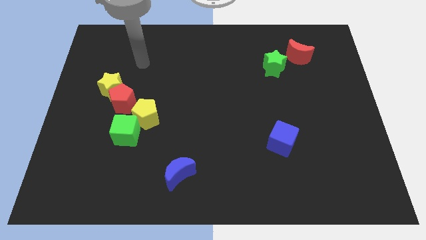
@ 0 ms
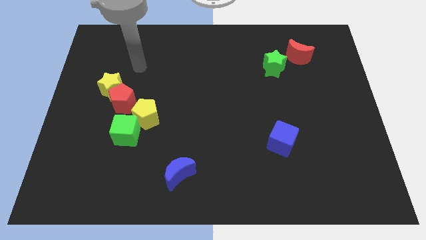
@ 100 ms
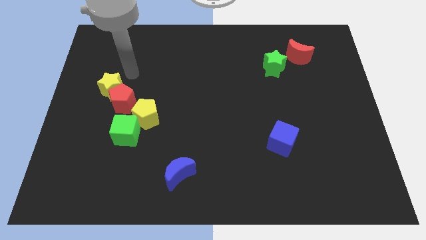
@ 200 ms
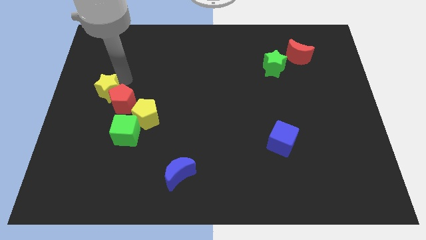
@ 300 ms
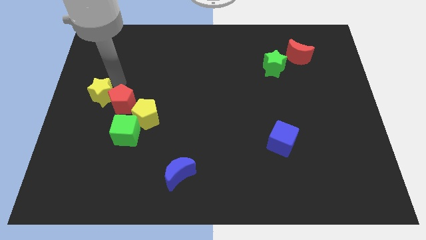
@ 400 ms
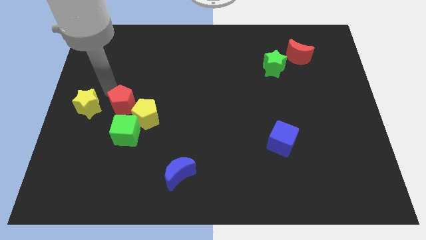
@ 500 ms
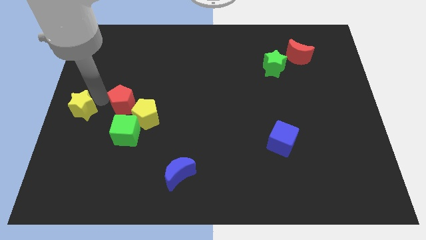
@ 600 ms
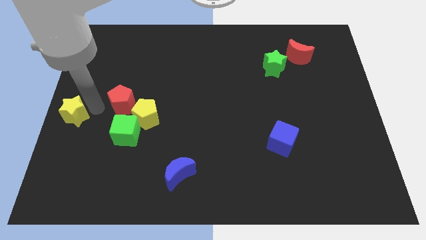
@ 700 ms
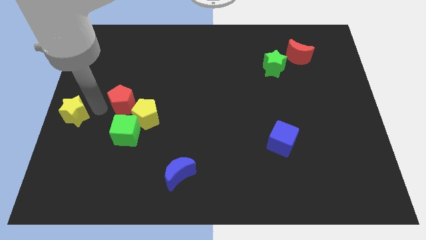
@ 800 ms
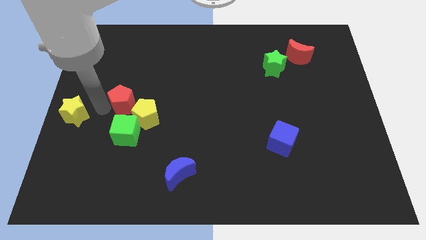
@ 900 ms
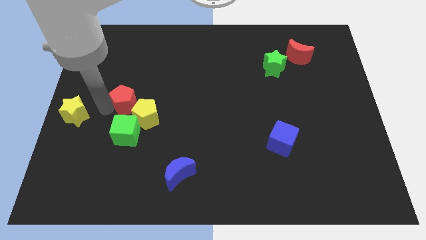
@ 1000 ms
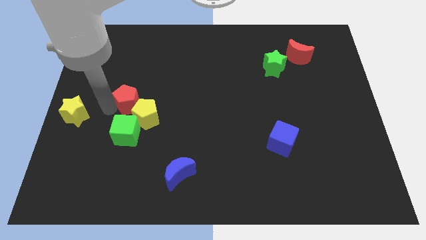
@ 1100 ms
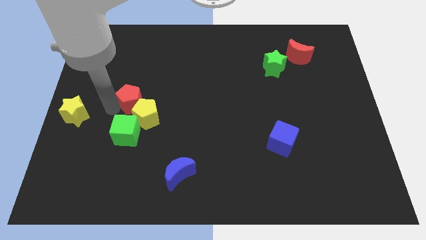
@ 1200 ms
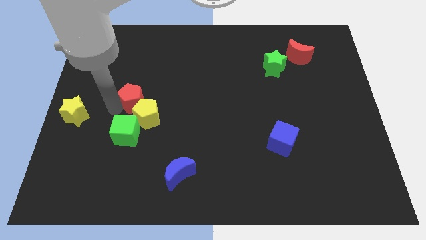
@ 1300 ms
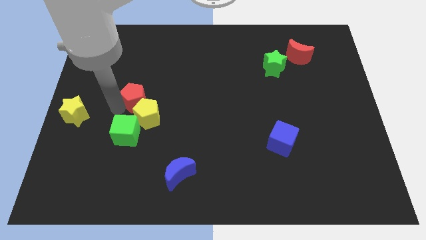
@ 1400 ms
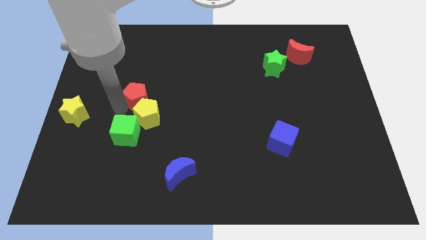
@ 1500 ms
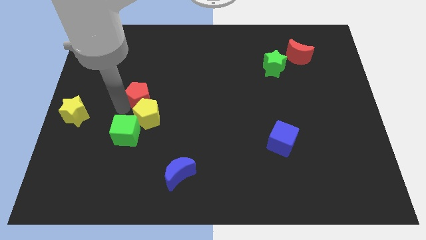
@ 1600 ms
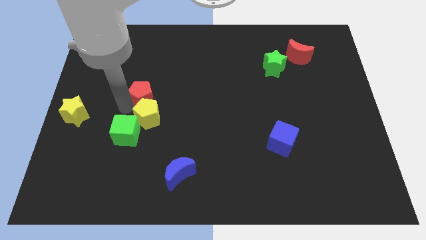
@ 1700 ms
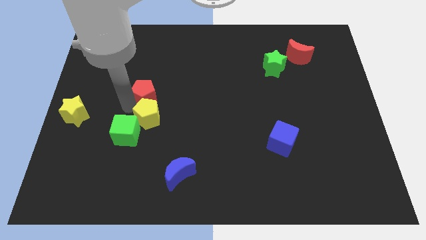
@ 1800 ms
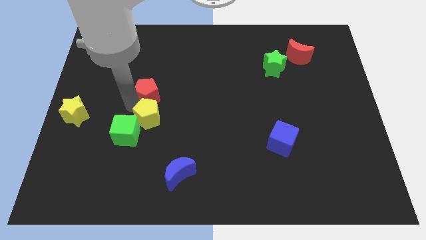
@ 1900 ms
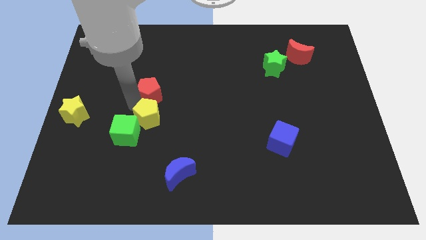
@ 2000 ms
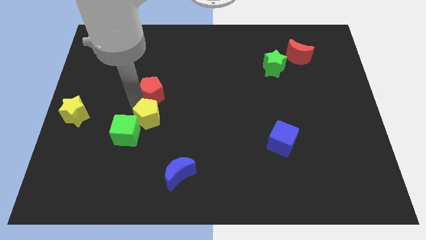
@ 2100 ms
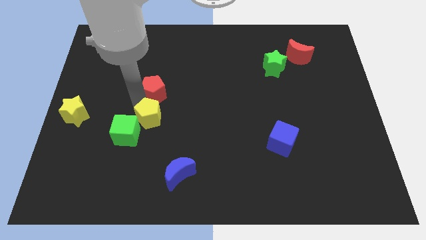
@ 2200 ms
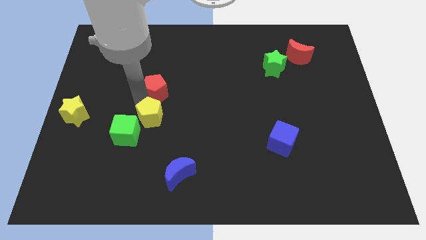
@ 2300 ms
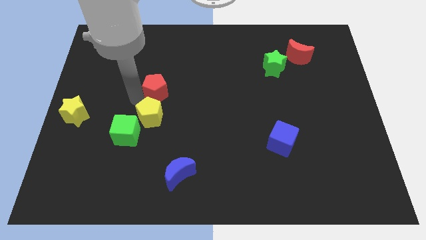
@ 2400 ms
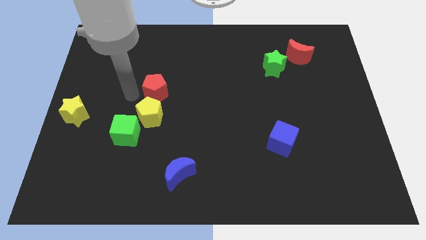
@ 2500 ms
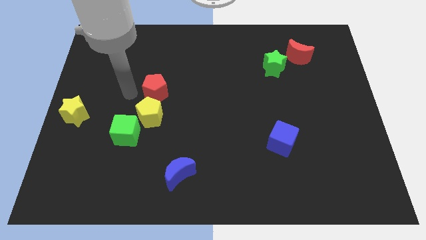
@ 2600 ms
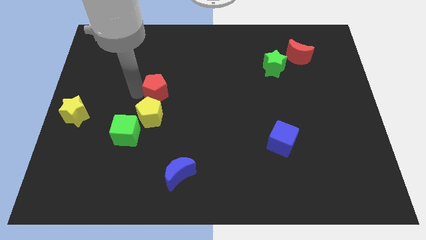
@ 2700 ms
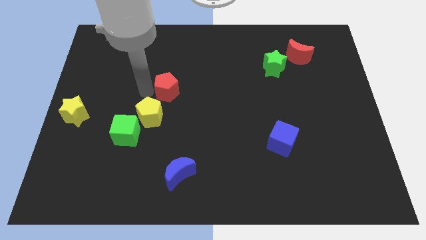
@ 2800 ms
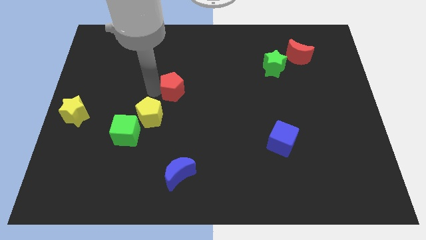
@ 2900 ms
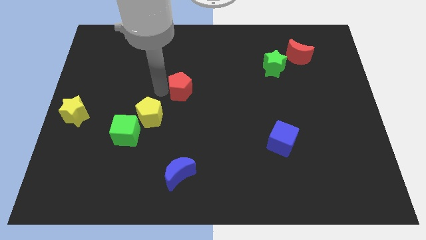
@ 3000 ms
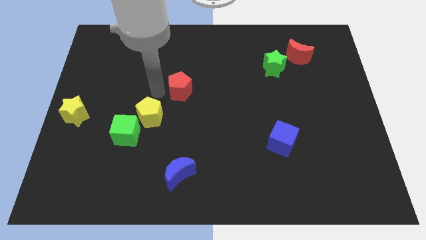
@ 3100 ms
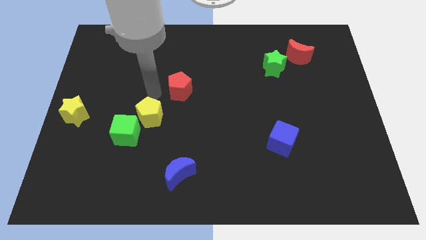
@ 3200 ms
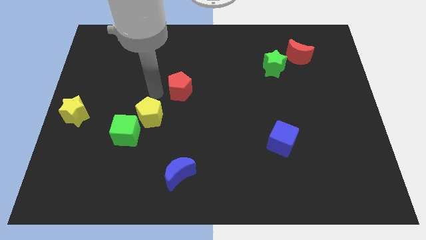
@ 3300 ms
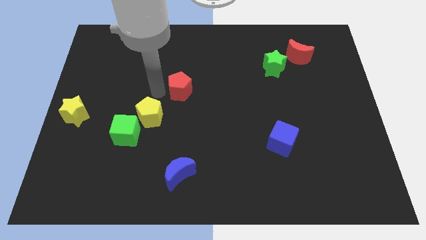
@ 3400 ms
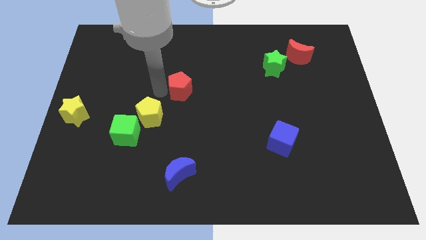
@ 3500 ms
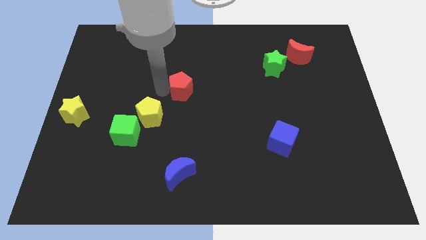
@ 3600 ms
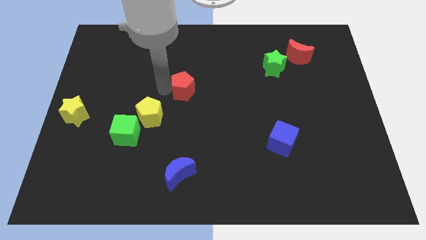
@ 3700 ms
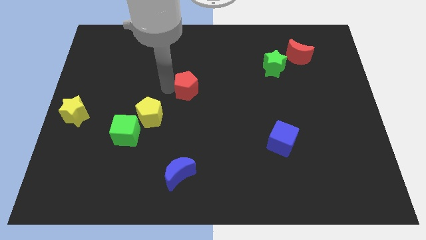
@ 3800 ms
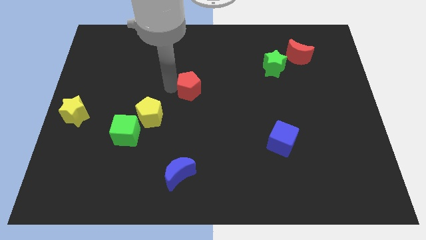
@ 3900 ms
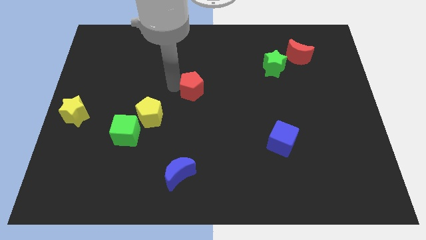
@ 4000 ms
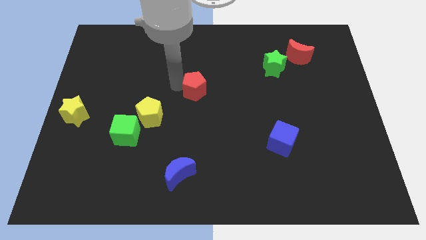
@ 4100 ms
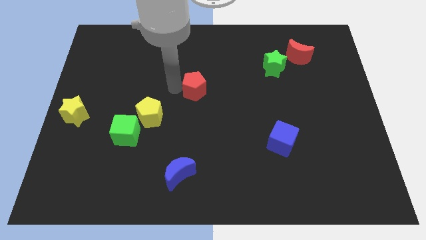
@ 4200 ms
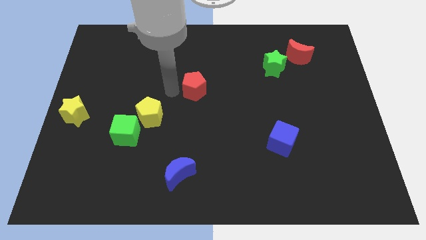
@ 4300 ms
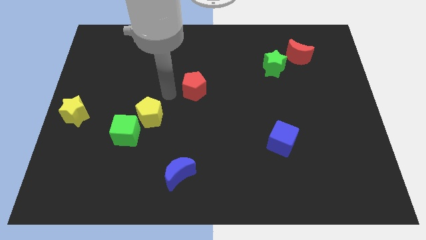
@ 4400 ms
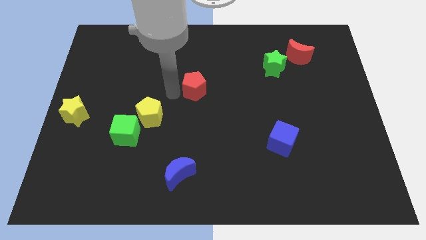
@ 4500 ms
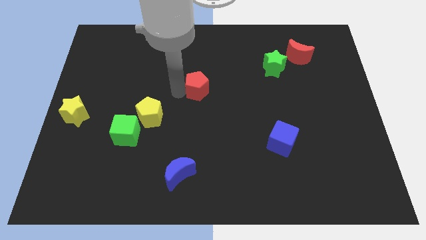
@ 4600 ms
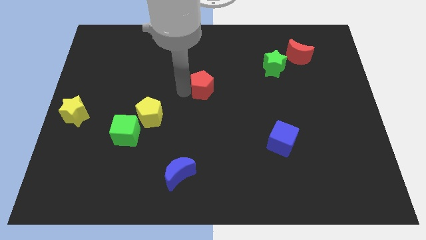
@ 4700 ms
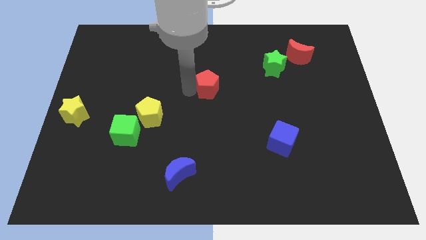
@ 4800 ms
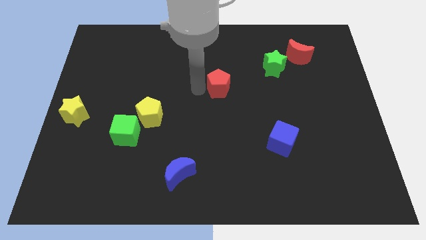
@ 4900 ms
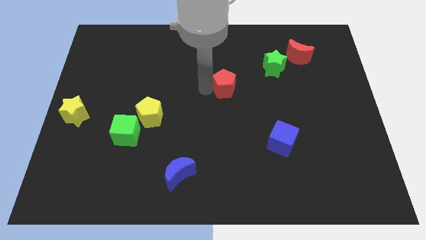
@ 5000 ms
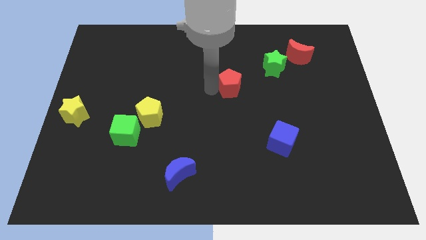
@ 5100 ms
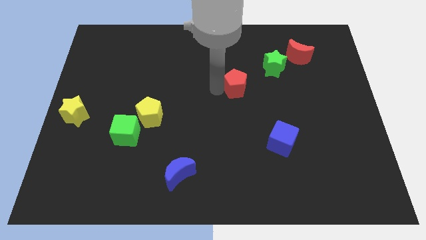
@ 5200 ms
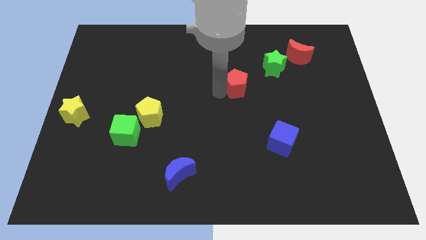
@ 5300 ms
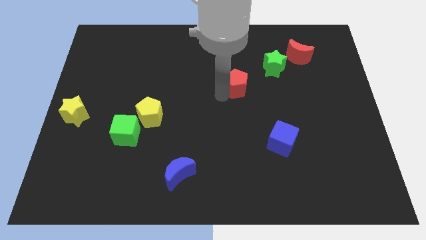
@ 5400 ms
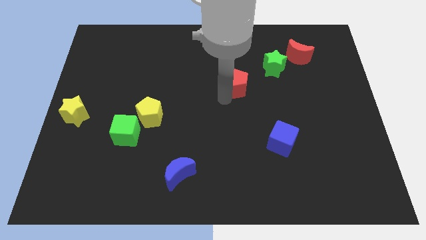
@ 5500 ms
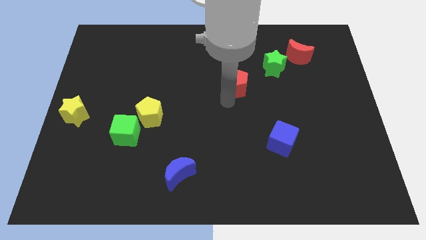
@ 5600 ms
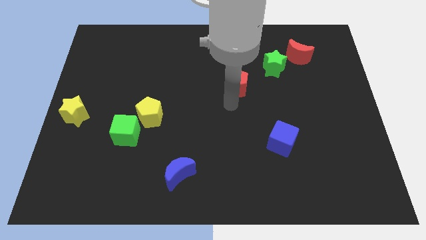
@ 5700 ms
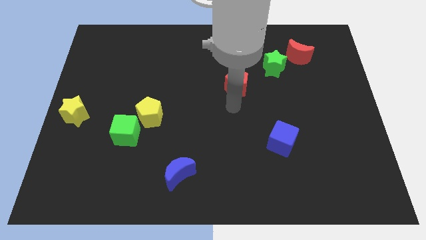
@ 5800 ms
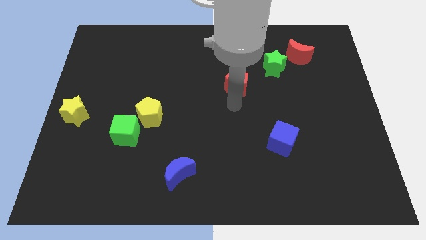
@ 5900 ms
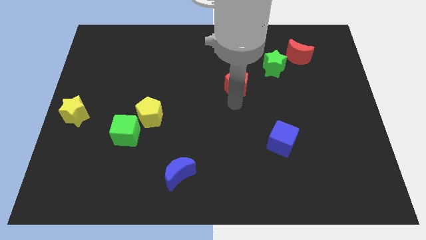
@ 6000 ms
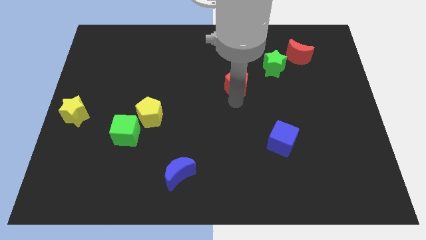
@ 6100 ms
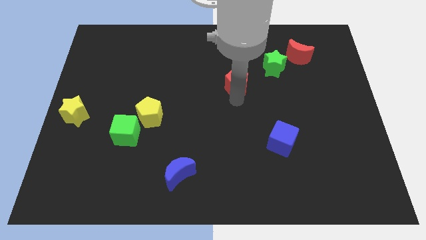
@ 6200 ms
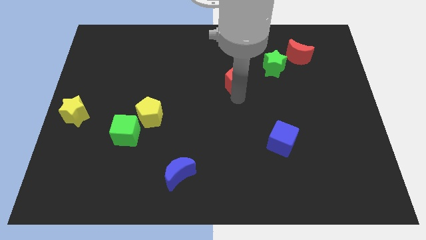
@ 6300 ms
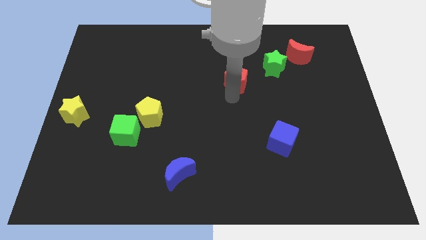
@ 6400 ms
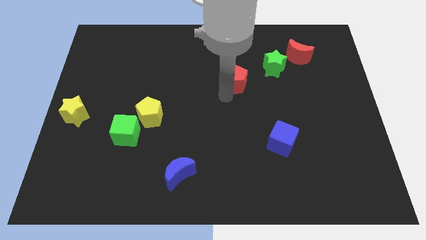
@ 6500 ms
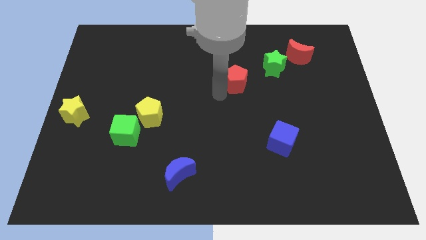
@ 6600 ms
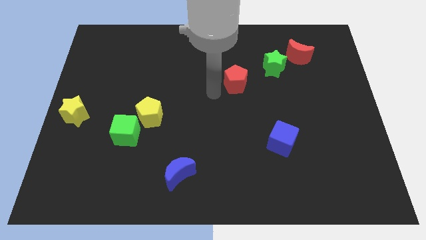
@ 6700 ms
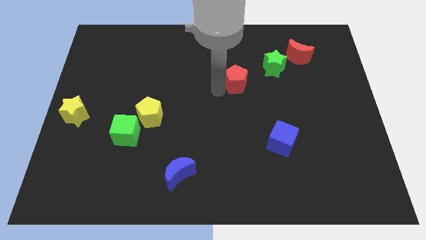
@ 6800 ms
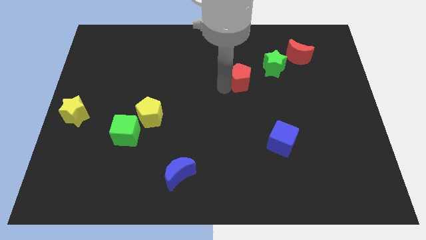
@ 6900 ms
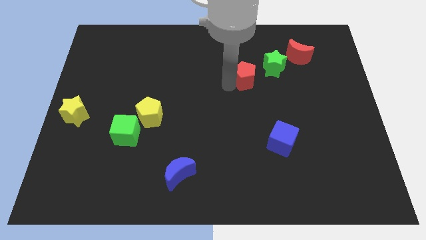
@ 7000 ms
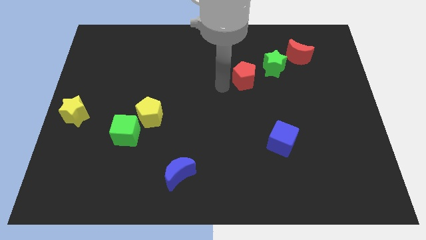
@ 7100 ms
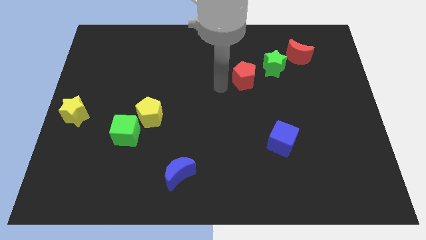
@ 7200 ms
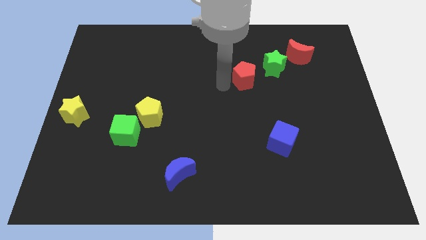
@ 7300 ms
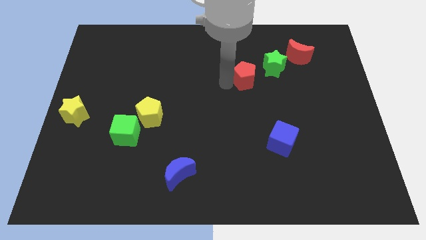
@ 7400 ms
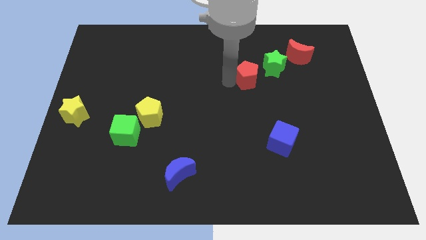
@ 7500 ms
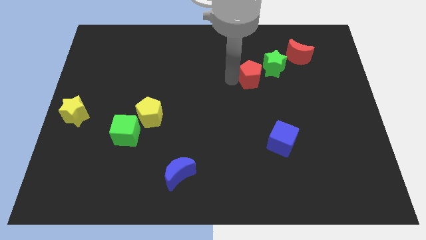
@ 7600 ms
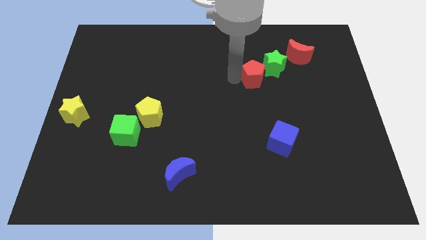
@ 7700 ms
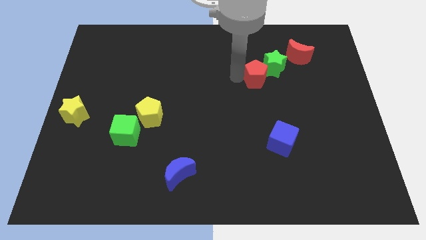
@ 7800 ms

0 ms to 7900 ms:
slide the red pentagon close to the green star
